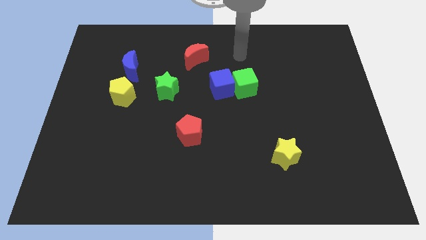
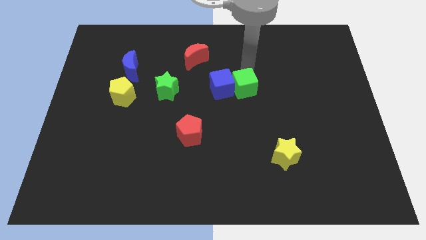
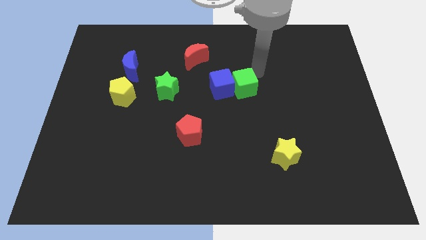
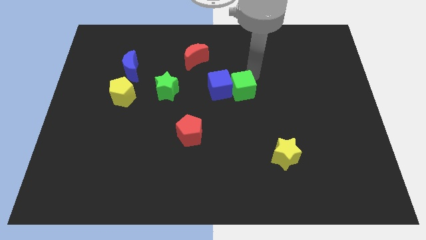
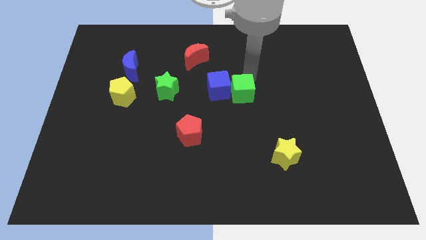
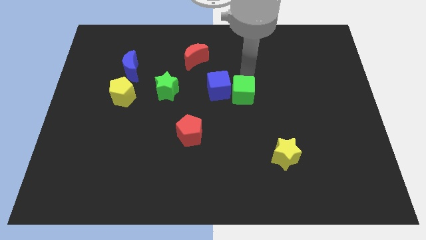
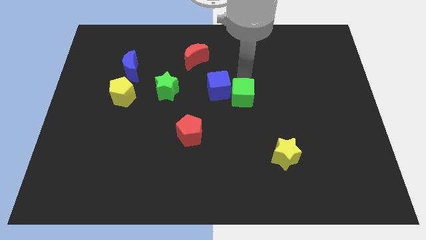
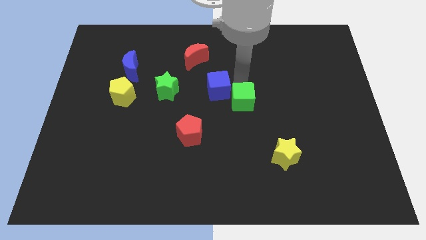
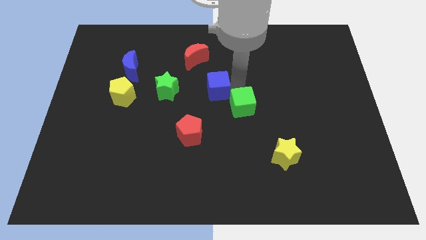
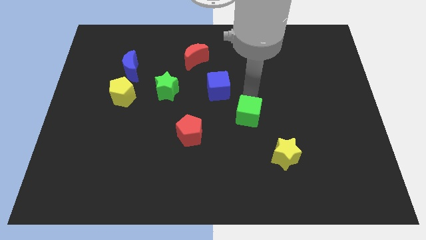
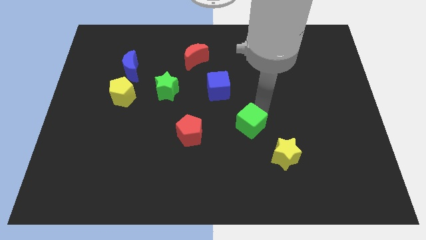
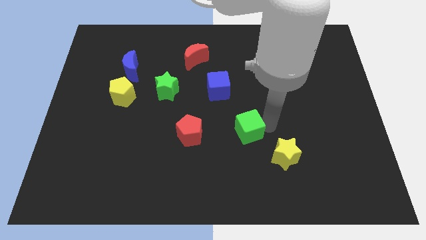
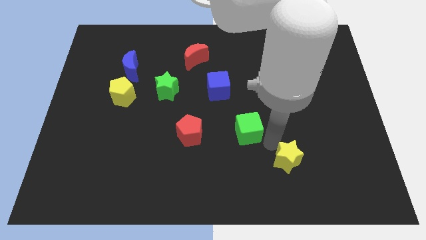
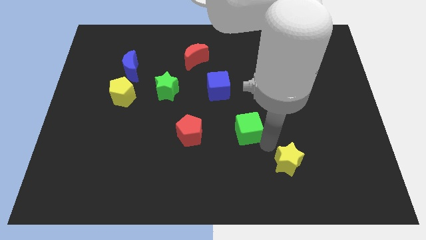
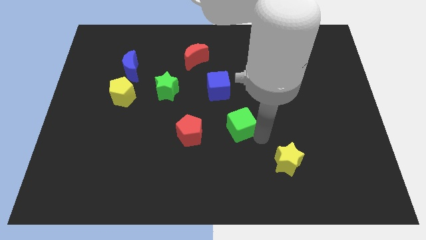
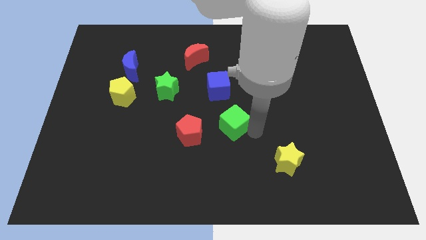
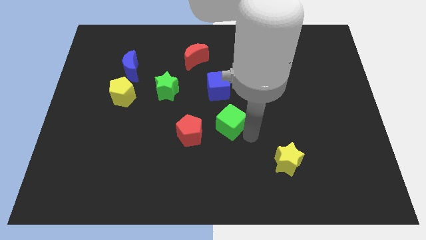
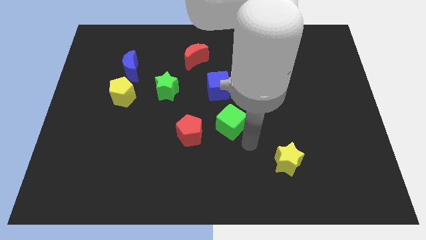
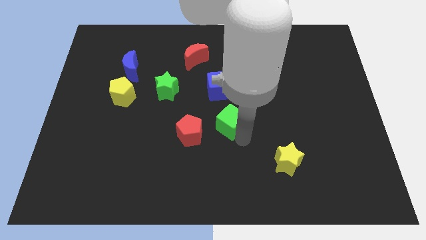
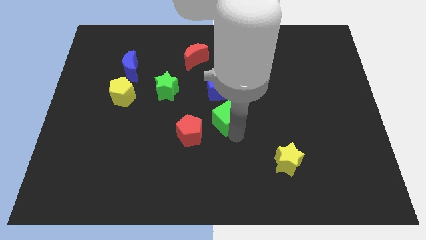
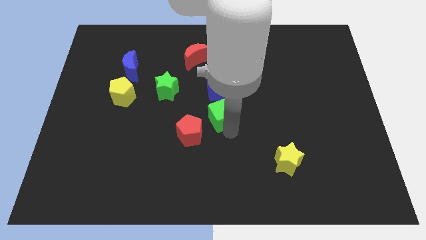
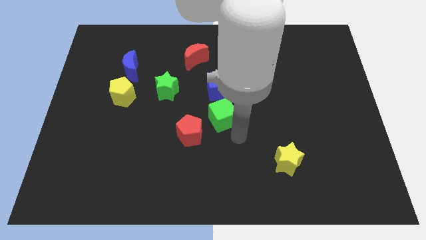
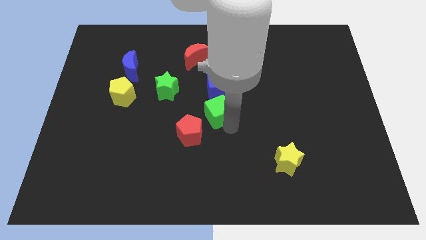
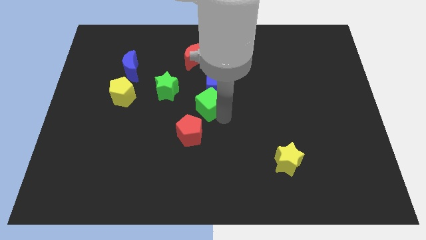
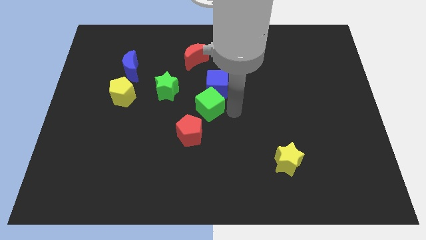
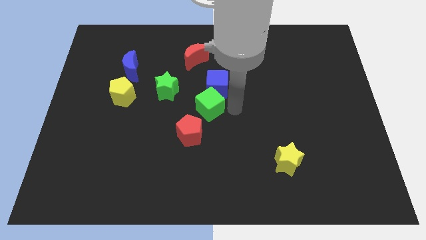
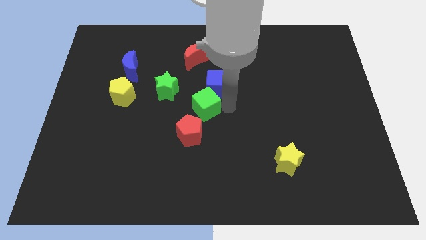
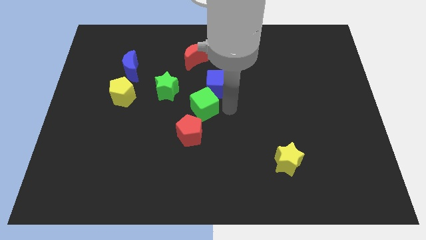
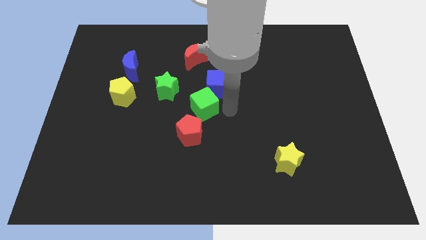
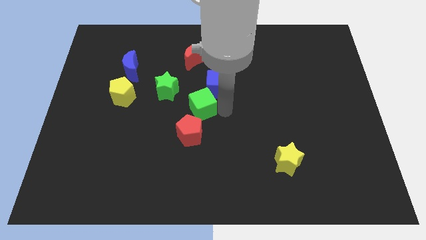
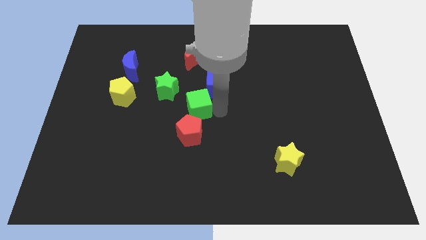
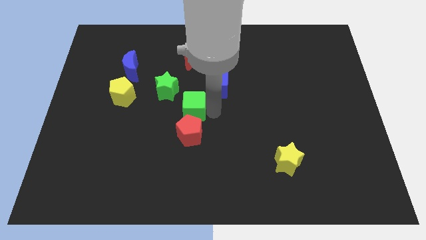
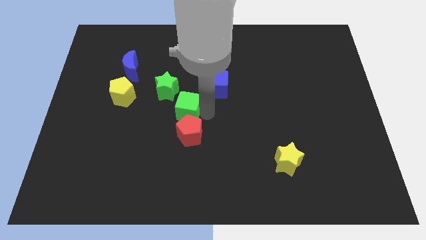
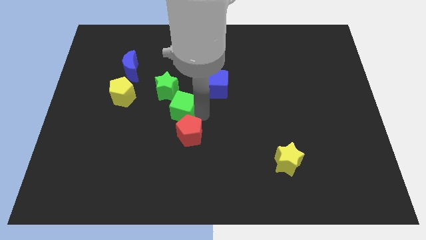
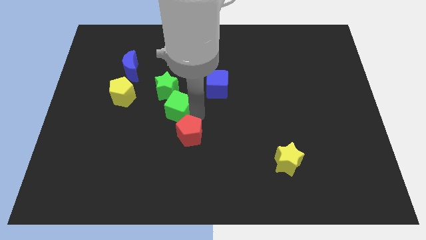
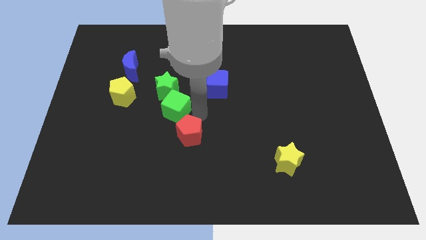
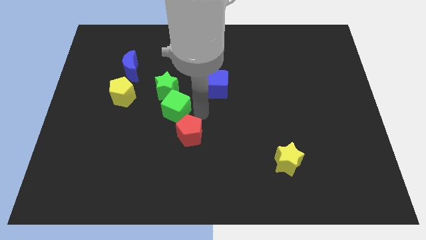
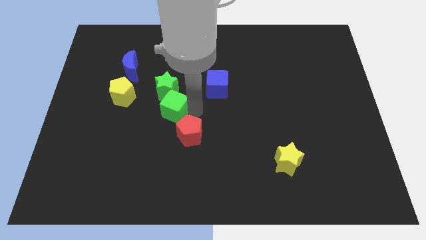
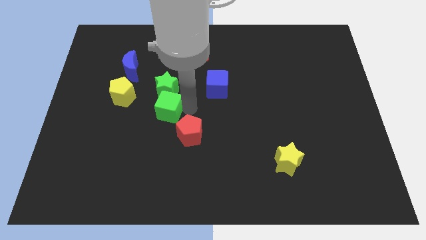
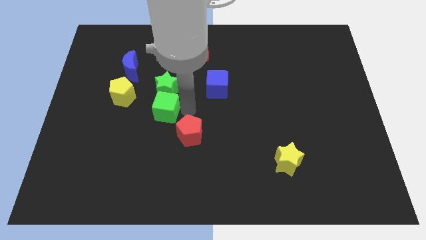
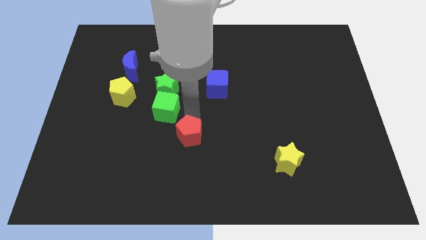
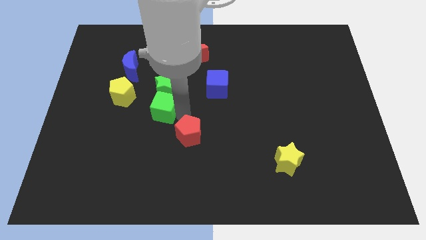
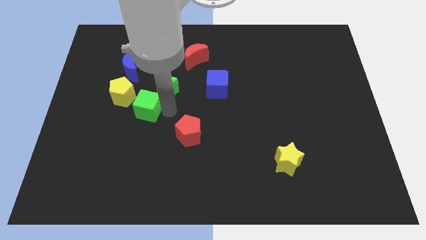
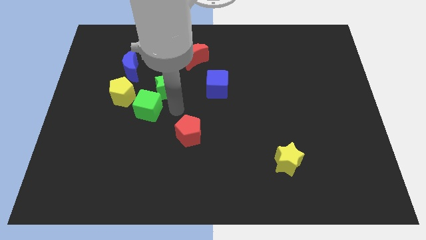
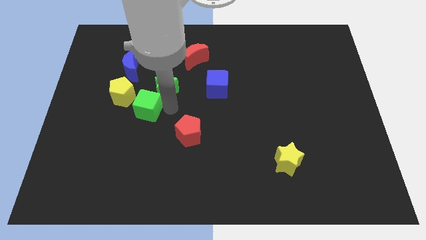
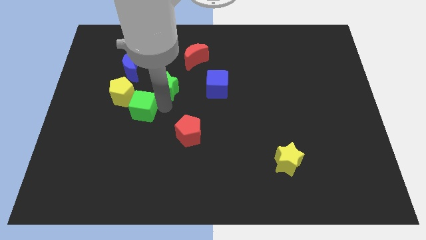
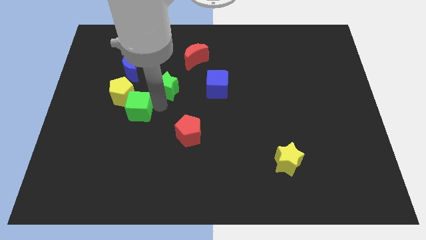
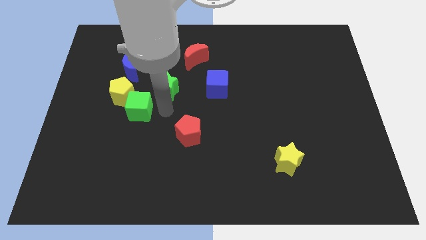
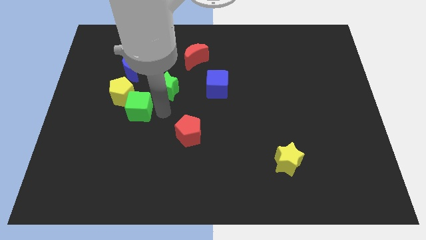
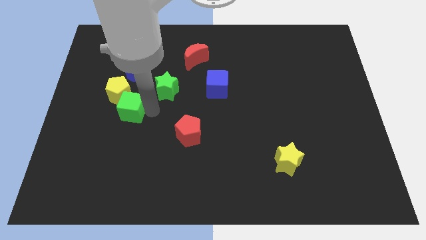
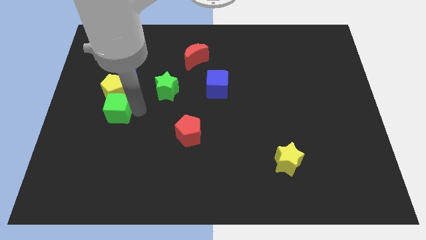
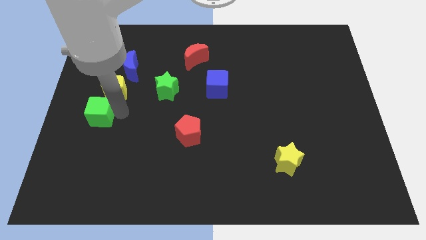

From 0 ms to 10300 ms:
push the green cube to the left side of the board

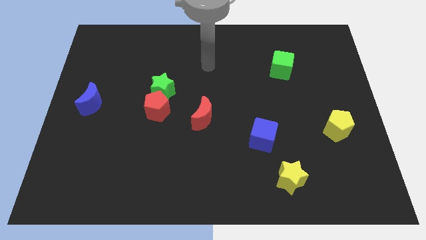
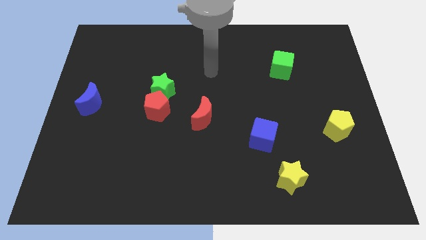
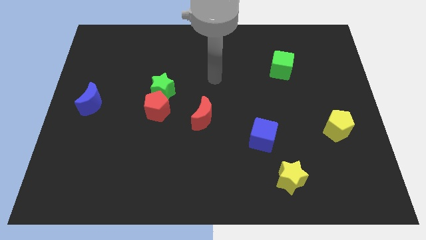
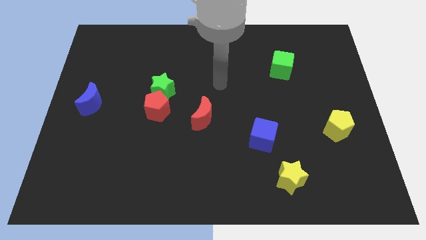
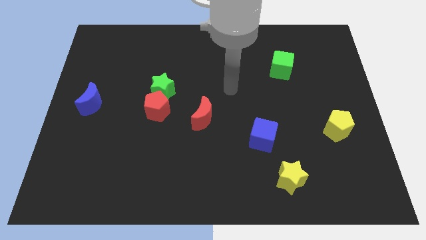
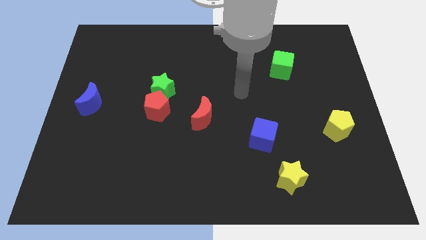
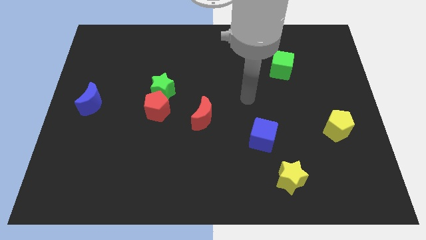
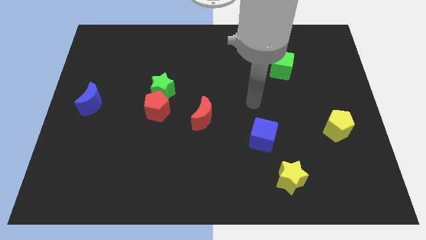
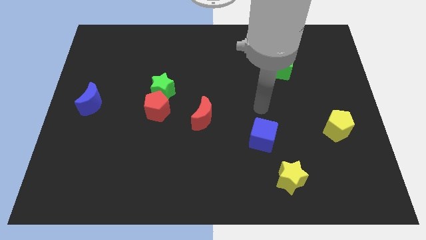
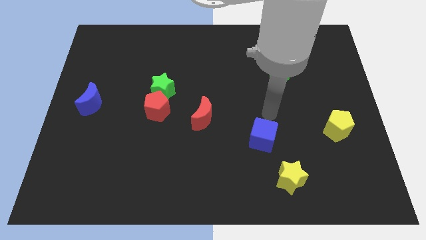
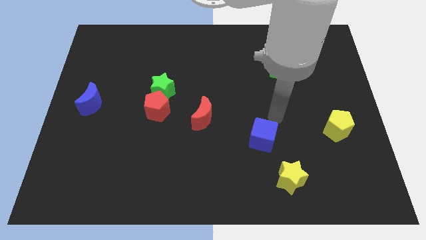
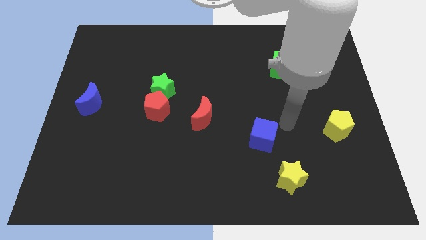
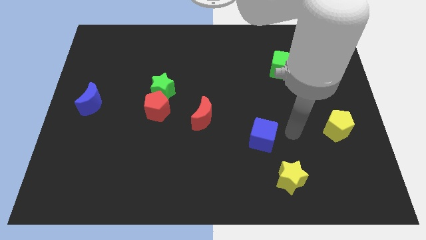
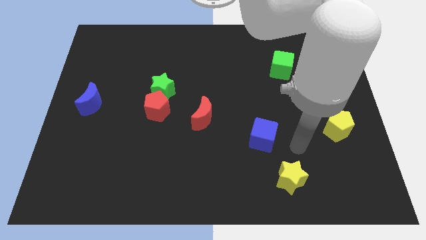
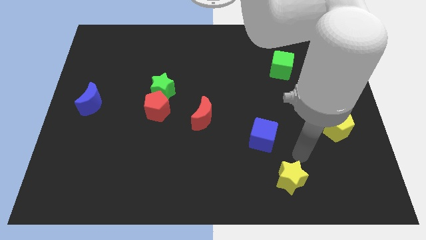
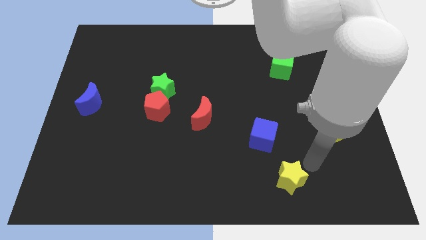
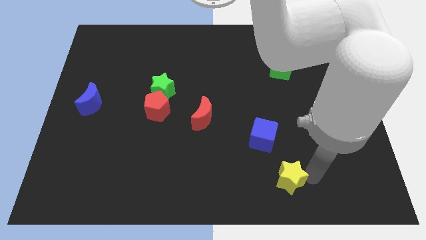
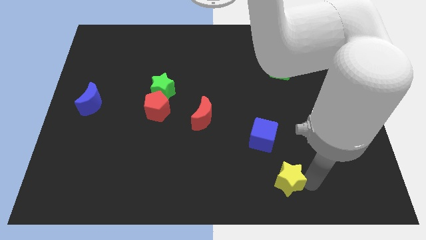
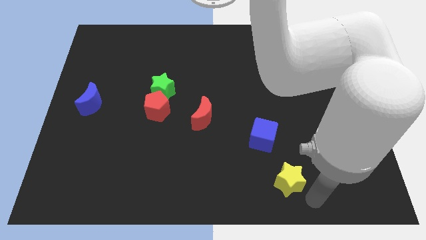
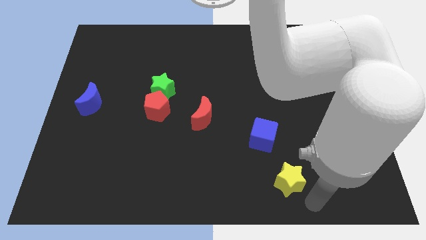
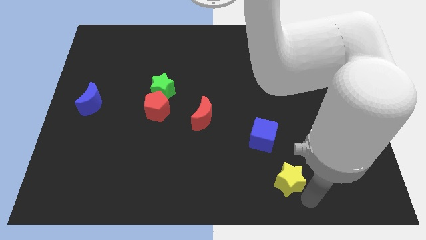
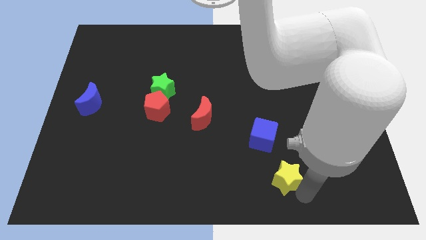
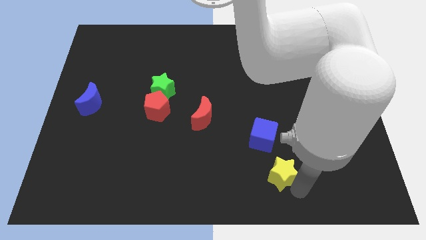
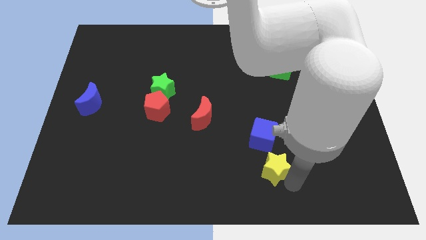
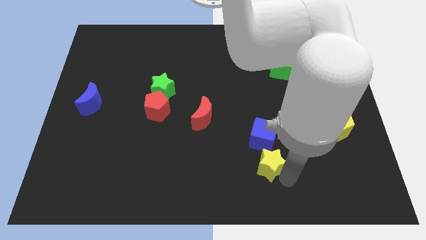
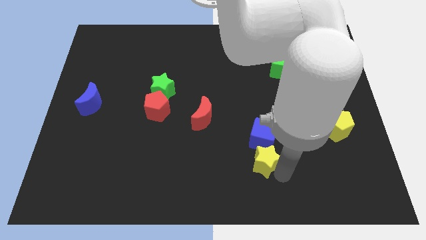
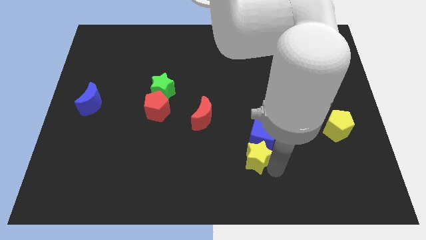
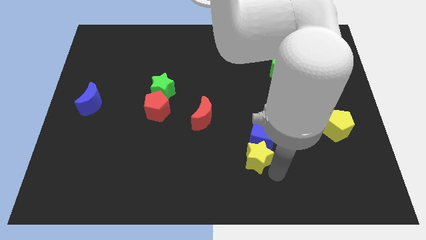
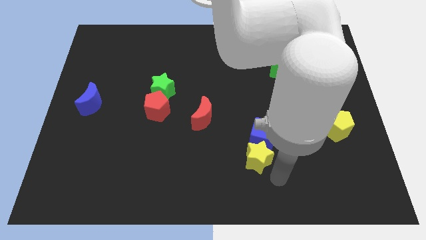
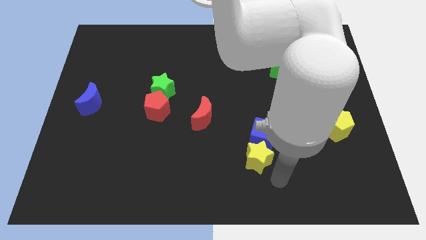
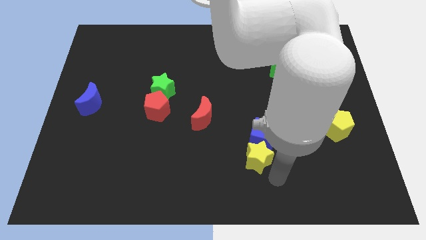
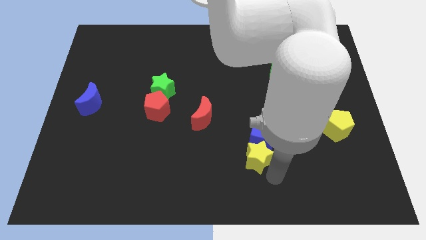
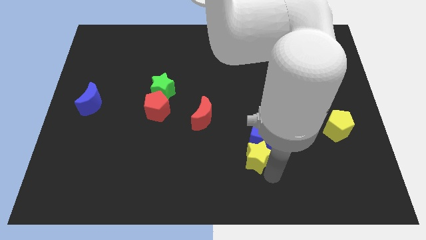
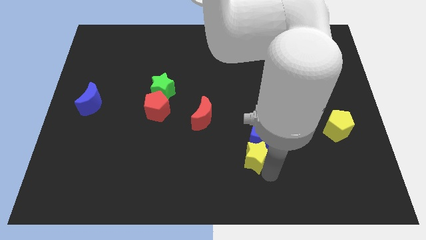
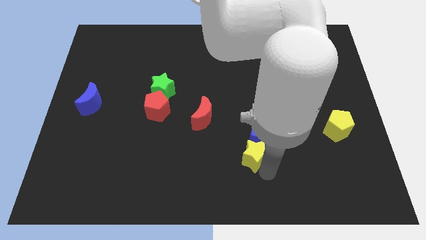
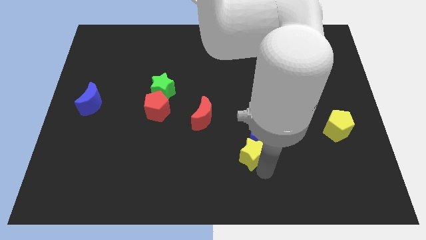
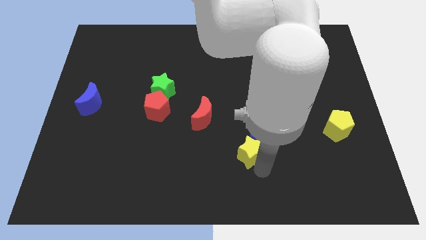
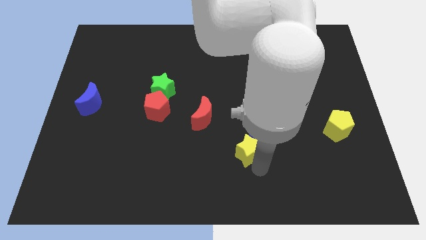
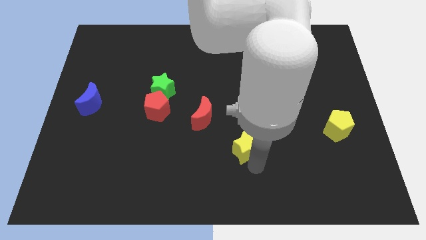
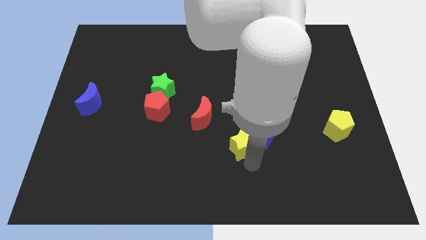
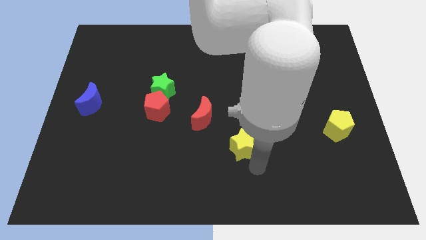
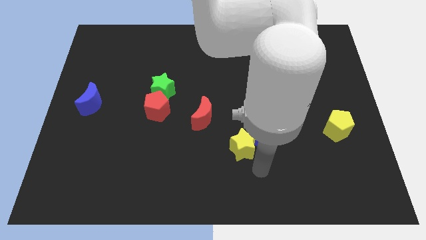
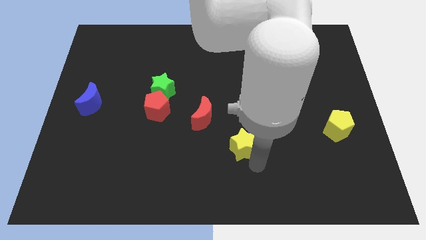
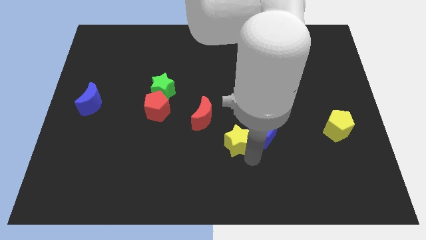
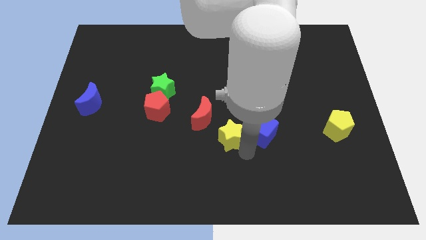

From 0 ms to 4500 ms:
push the yellow star to the center
